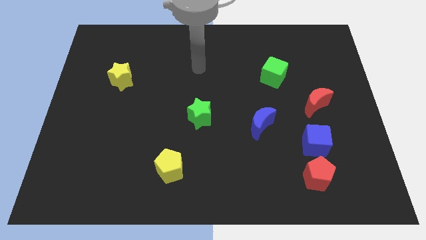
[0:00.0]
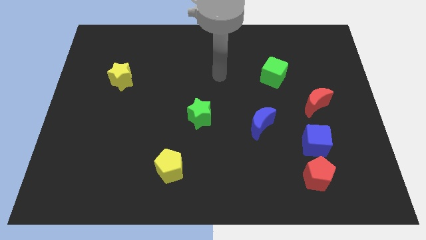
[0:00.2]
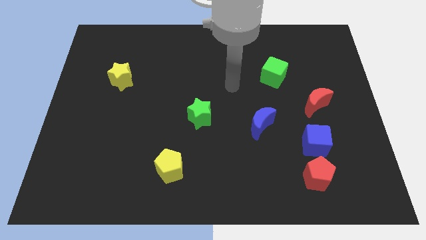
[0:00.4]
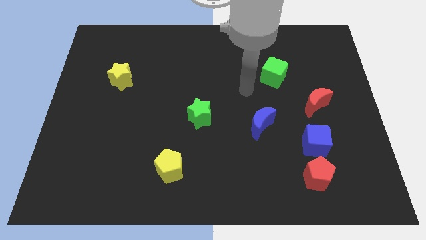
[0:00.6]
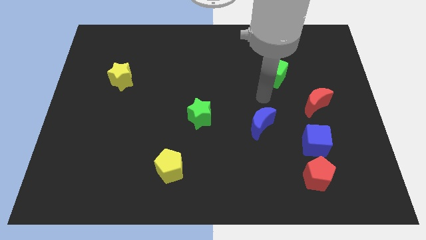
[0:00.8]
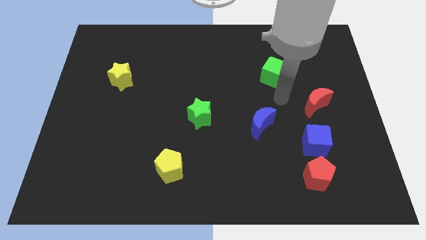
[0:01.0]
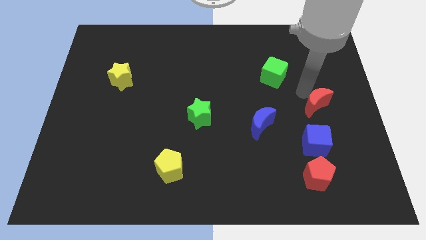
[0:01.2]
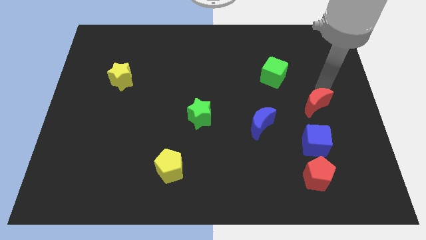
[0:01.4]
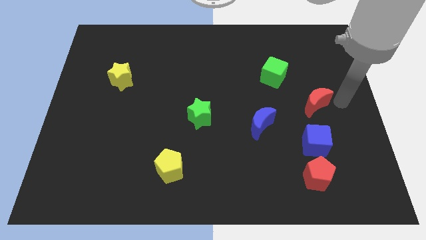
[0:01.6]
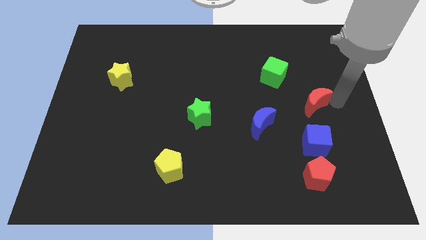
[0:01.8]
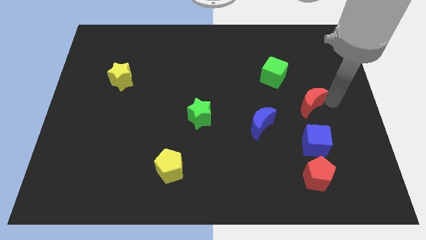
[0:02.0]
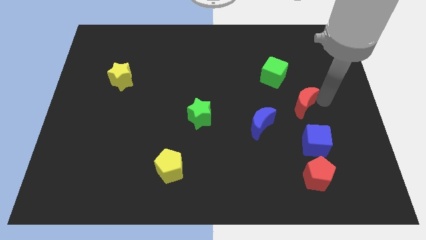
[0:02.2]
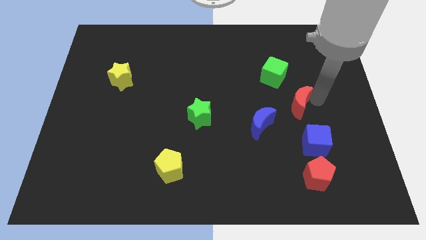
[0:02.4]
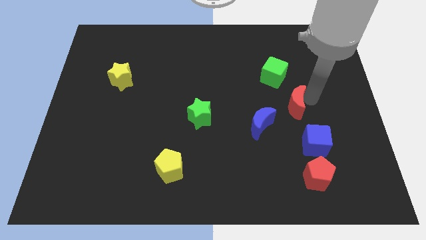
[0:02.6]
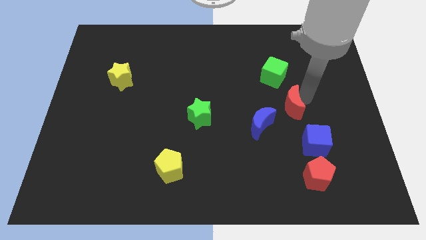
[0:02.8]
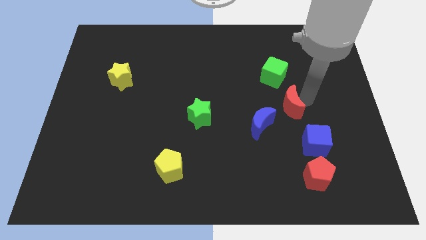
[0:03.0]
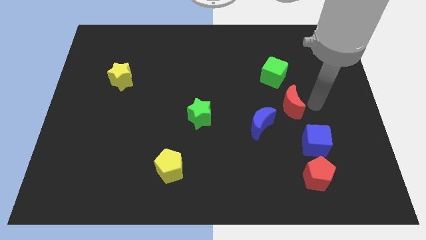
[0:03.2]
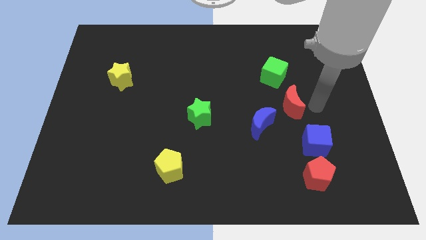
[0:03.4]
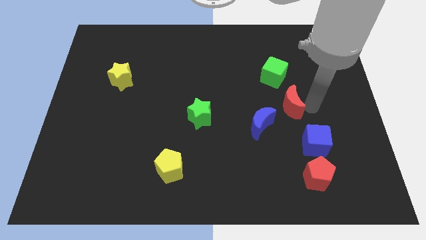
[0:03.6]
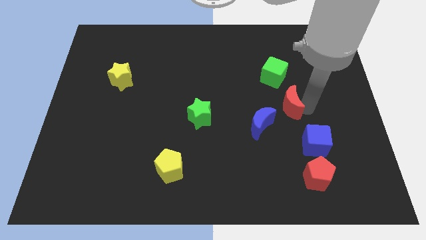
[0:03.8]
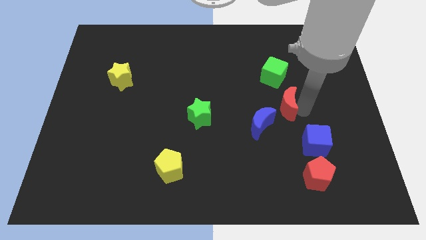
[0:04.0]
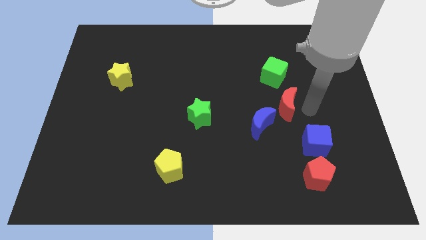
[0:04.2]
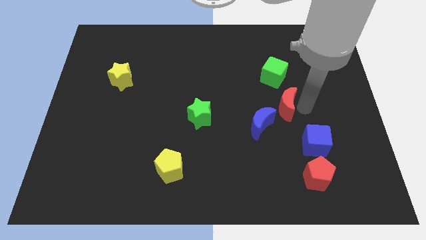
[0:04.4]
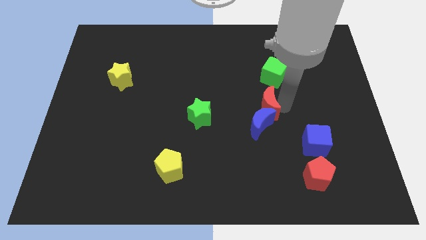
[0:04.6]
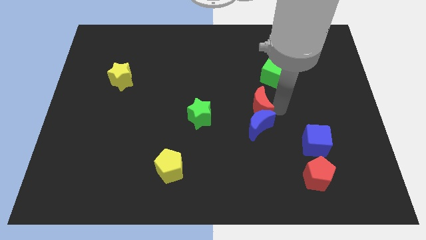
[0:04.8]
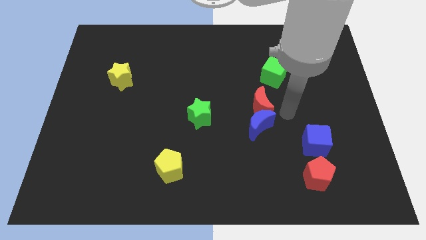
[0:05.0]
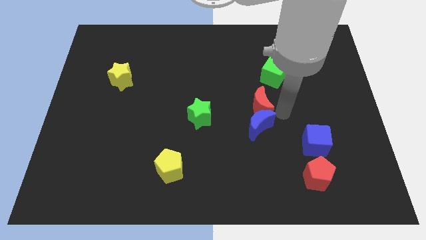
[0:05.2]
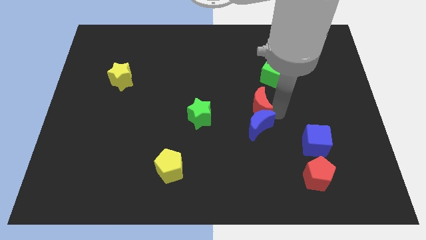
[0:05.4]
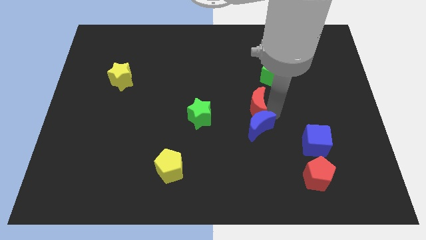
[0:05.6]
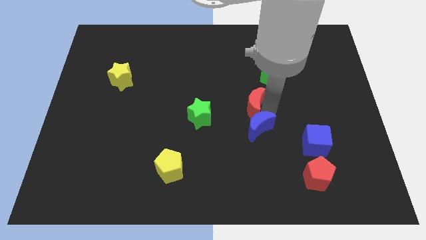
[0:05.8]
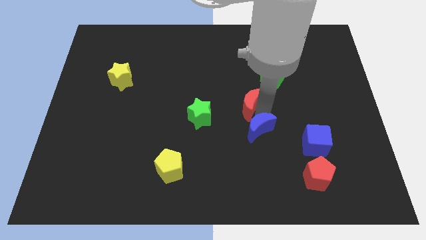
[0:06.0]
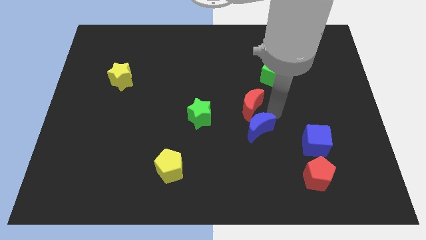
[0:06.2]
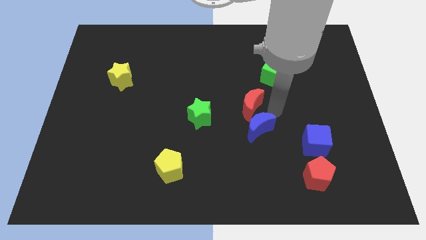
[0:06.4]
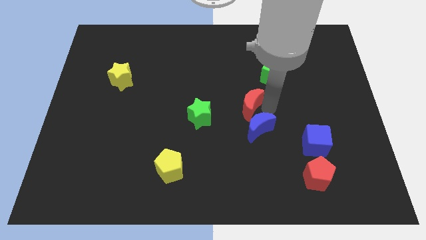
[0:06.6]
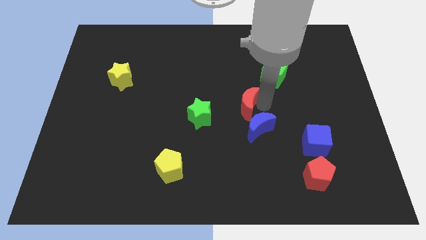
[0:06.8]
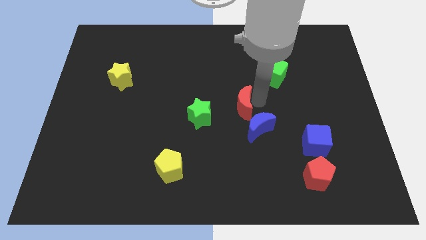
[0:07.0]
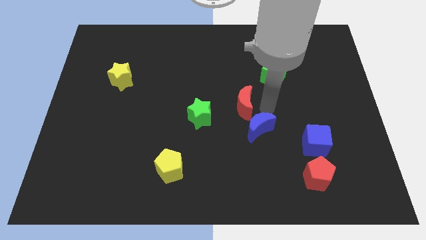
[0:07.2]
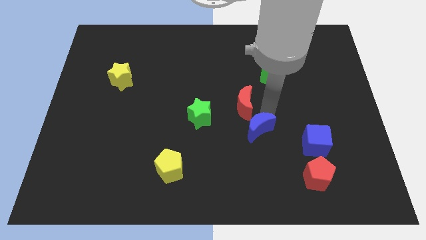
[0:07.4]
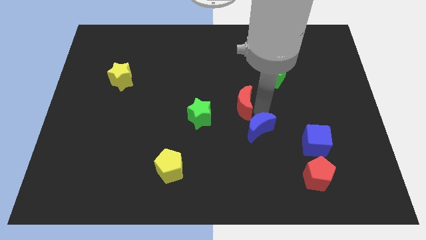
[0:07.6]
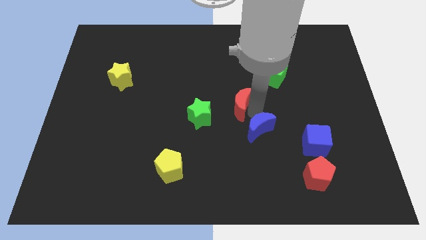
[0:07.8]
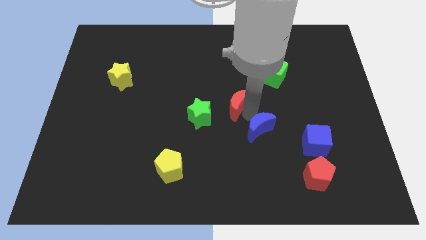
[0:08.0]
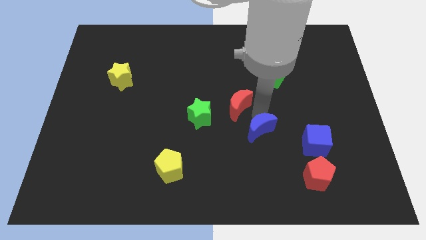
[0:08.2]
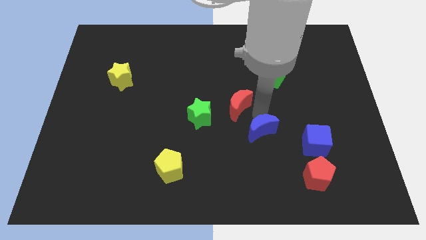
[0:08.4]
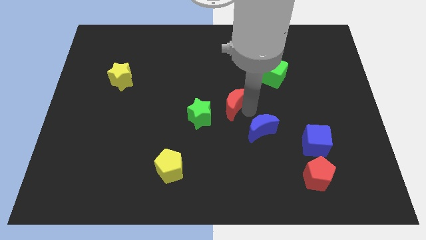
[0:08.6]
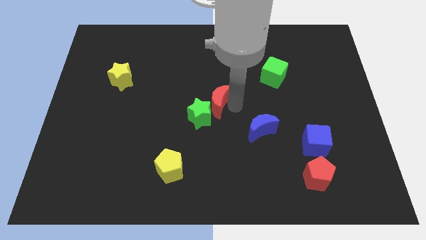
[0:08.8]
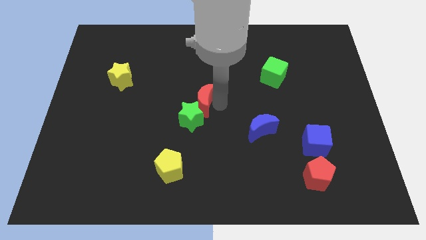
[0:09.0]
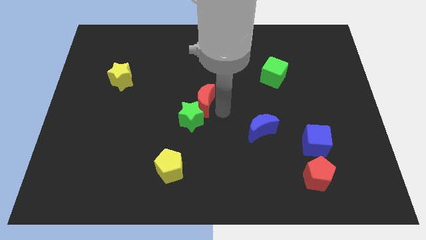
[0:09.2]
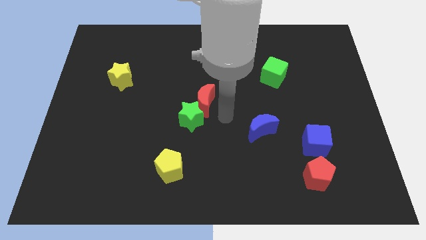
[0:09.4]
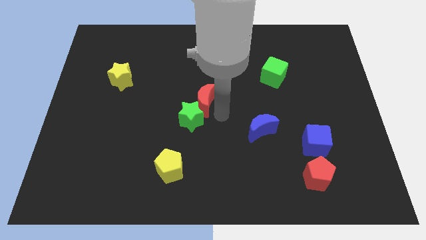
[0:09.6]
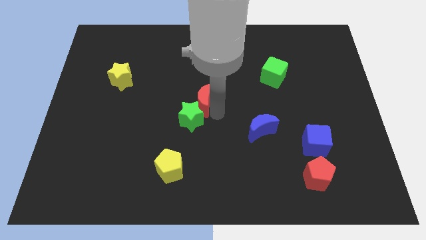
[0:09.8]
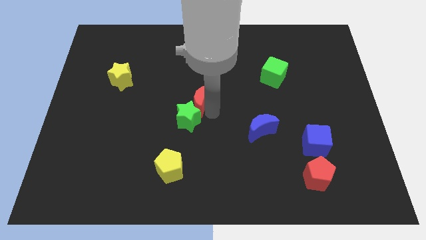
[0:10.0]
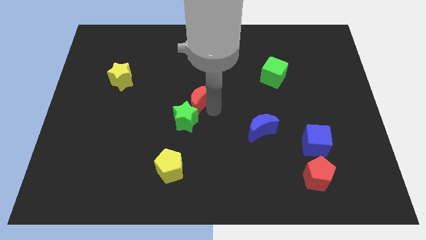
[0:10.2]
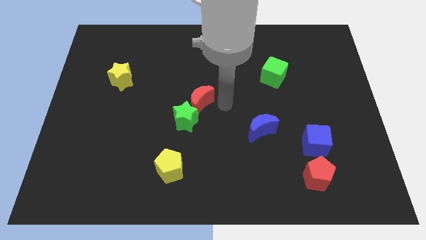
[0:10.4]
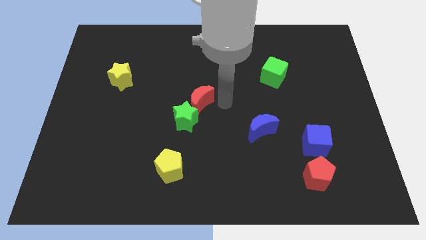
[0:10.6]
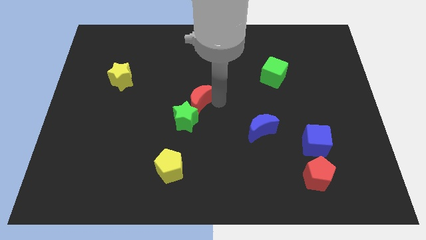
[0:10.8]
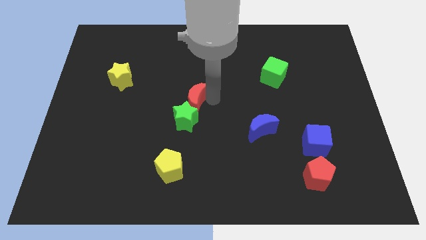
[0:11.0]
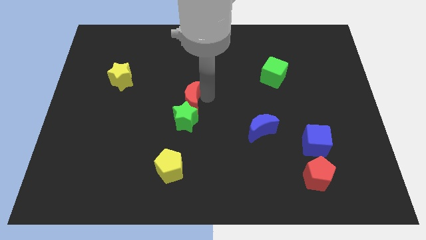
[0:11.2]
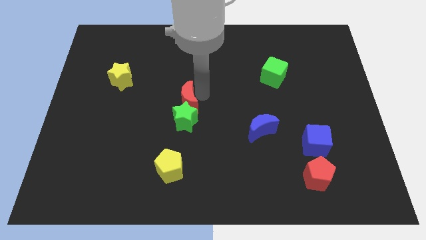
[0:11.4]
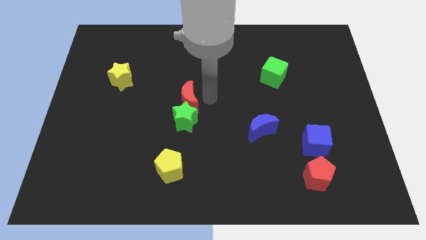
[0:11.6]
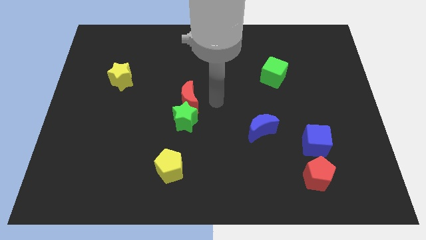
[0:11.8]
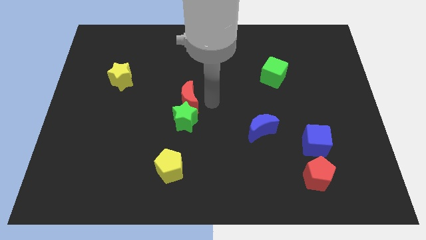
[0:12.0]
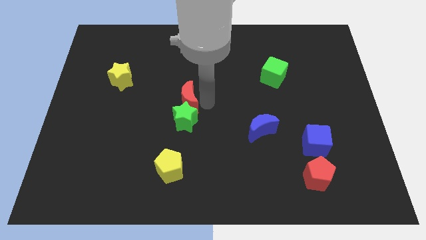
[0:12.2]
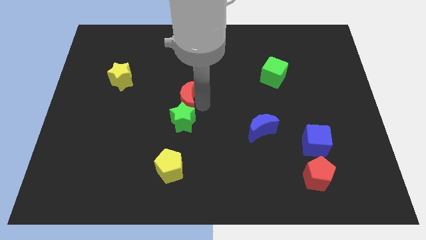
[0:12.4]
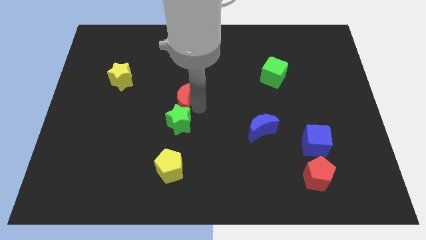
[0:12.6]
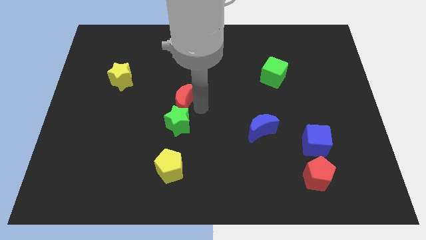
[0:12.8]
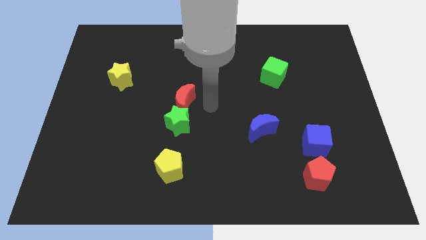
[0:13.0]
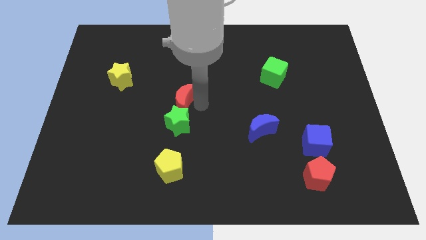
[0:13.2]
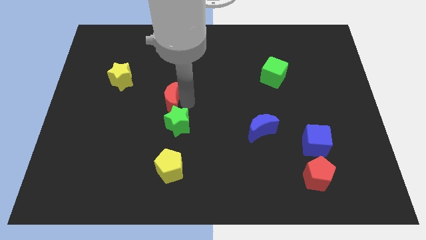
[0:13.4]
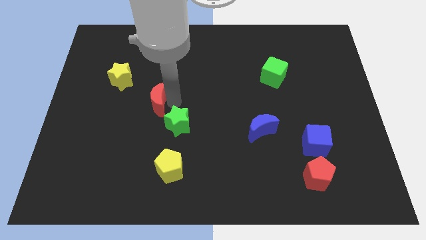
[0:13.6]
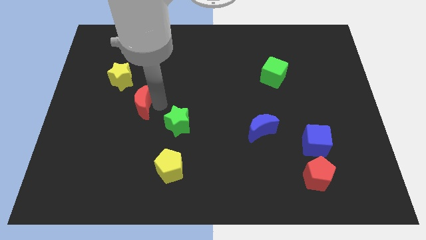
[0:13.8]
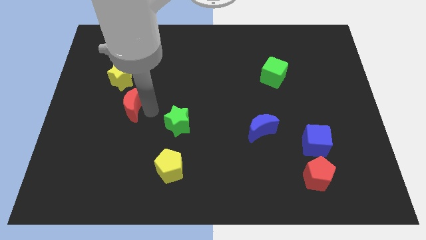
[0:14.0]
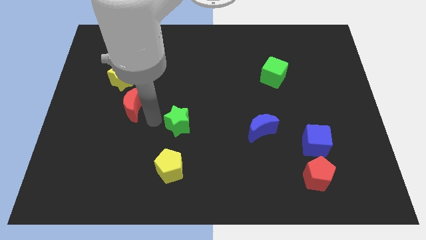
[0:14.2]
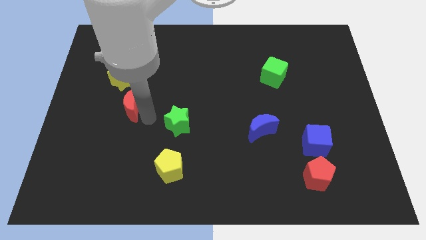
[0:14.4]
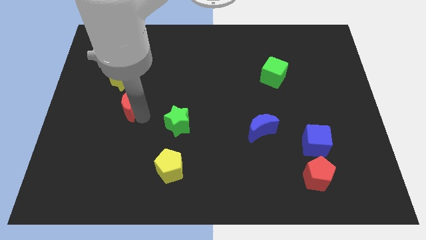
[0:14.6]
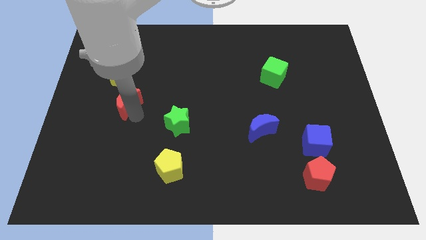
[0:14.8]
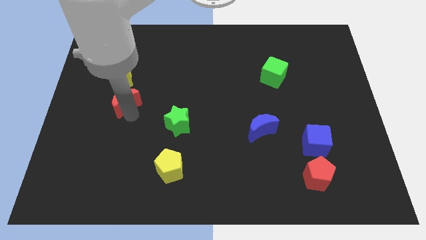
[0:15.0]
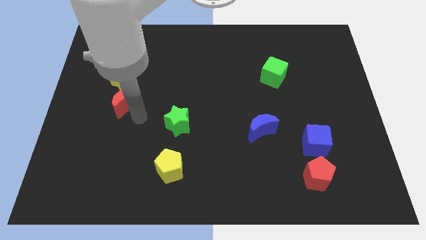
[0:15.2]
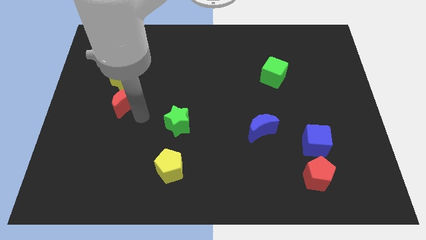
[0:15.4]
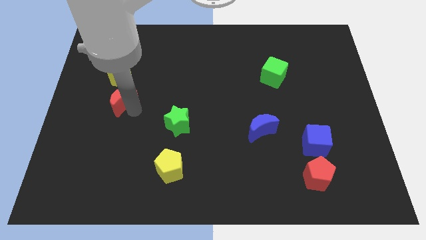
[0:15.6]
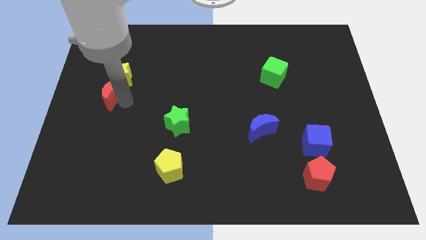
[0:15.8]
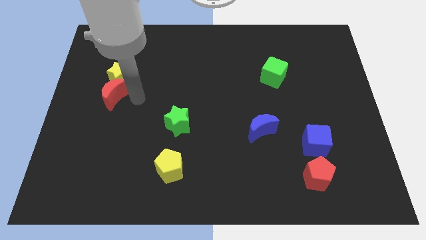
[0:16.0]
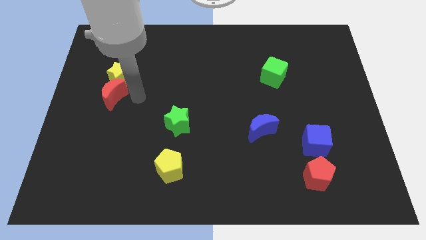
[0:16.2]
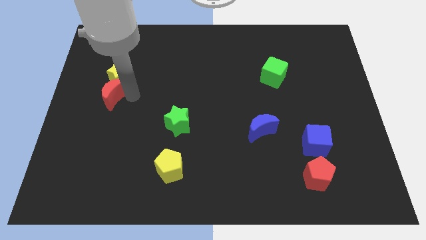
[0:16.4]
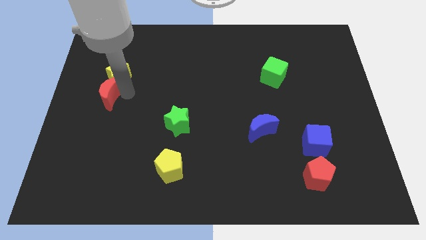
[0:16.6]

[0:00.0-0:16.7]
move the red moon to the center left
